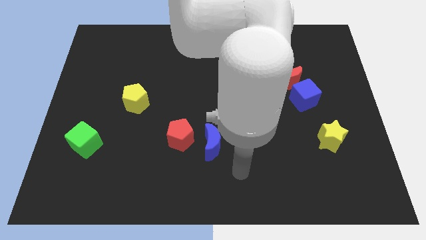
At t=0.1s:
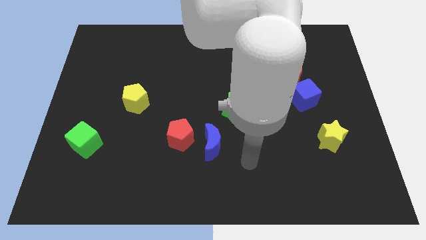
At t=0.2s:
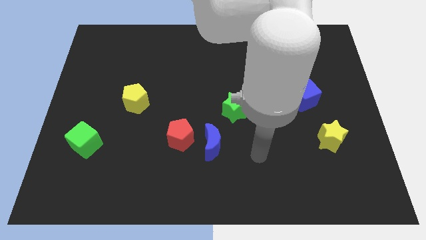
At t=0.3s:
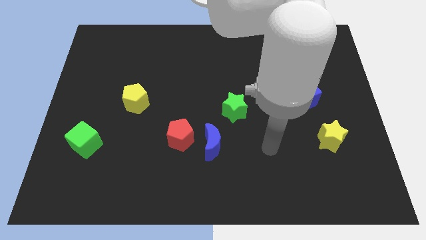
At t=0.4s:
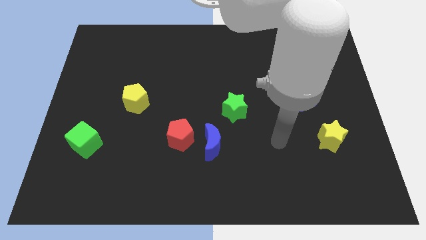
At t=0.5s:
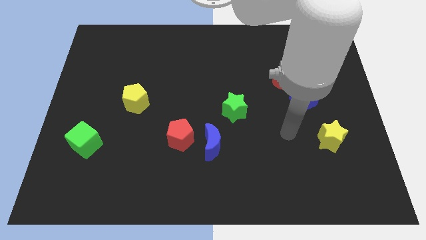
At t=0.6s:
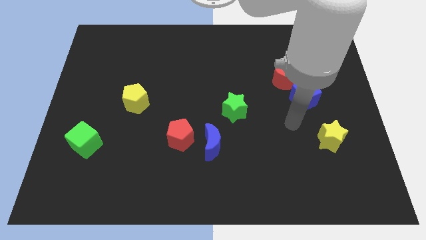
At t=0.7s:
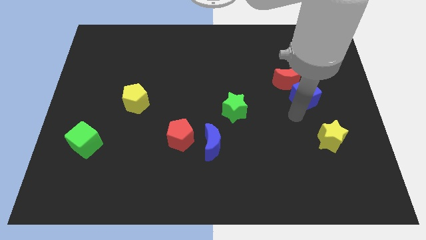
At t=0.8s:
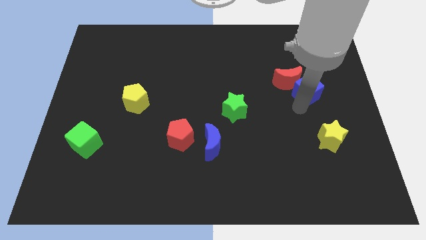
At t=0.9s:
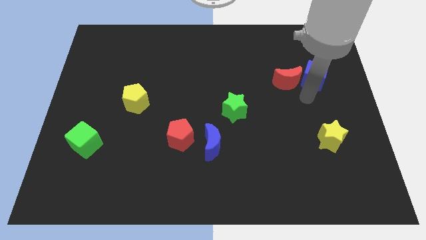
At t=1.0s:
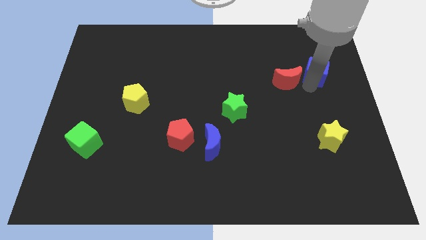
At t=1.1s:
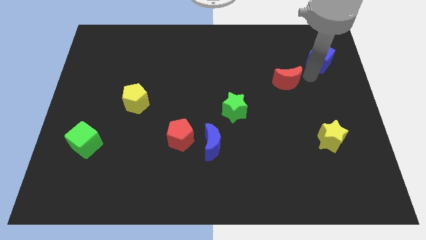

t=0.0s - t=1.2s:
separate the red moon from the blue cube

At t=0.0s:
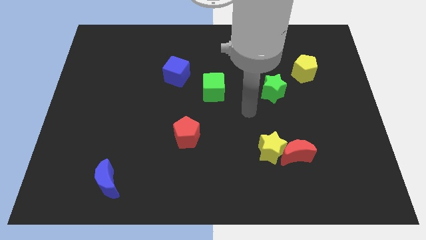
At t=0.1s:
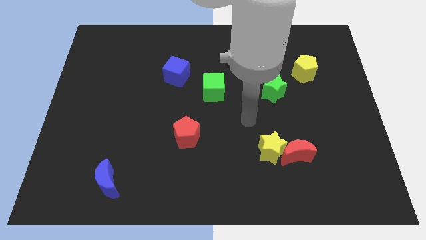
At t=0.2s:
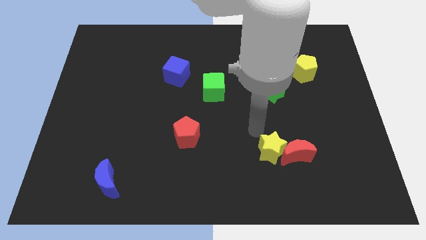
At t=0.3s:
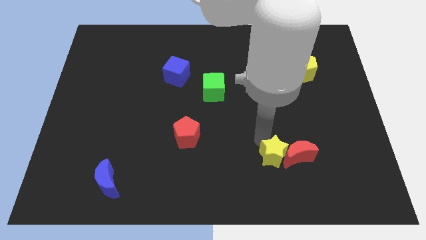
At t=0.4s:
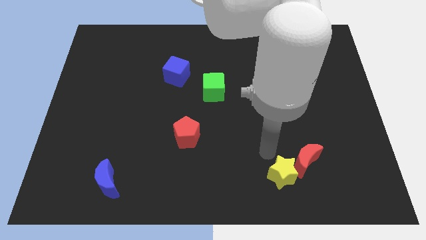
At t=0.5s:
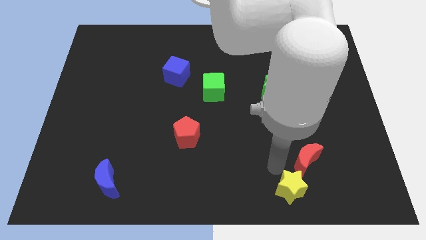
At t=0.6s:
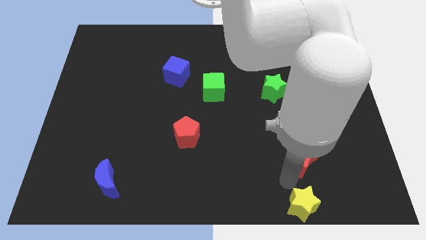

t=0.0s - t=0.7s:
pull the red moon apart from the yellow star

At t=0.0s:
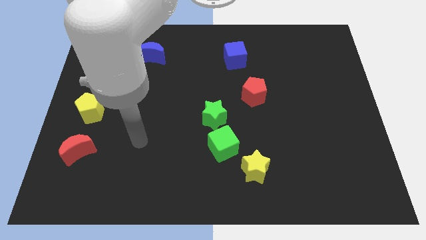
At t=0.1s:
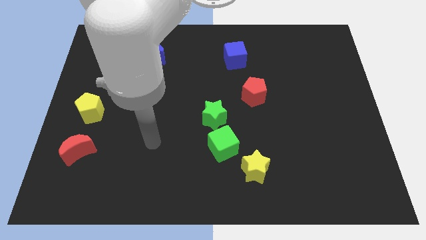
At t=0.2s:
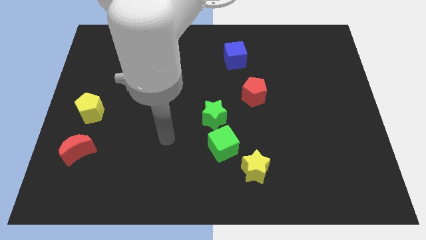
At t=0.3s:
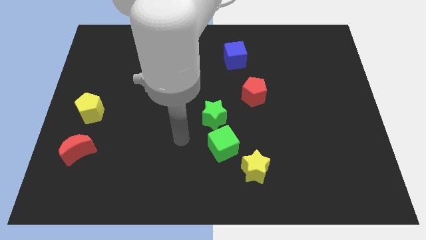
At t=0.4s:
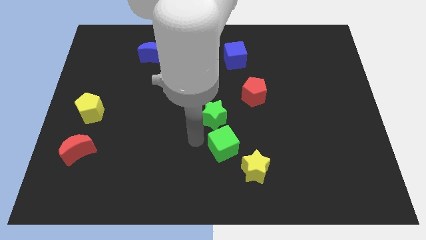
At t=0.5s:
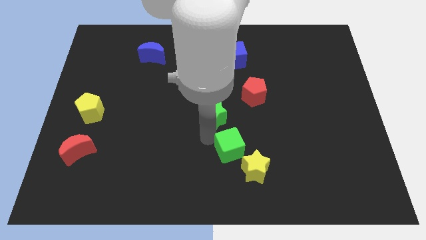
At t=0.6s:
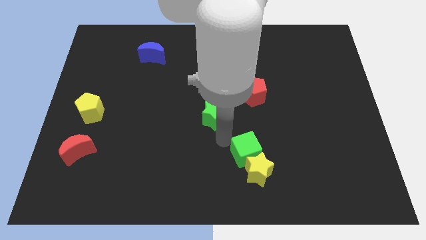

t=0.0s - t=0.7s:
separate the green star from the green cube

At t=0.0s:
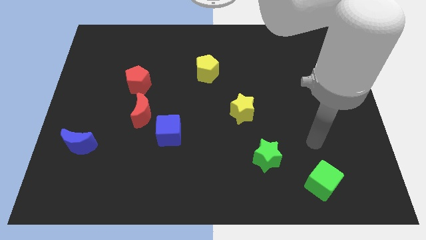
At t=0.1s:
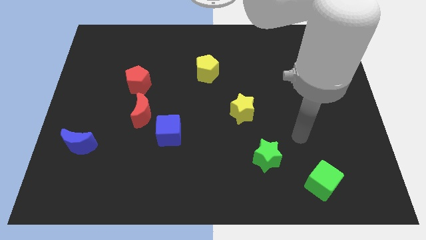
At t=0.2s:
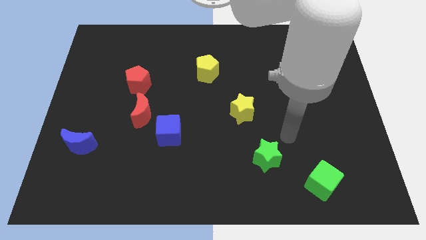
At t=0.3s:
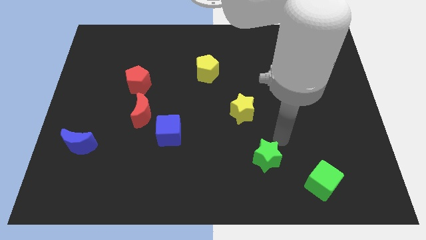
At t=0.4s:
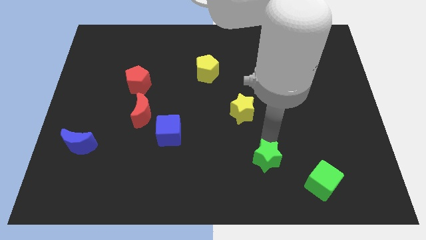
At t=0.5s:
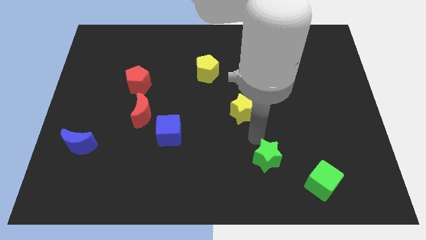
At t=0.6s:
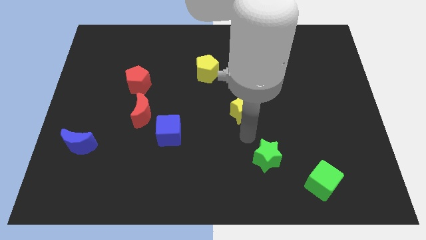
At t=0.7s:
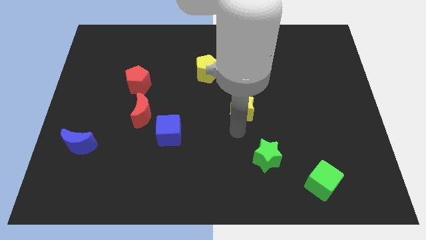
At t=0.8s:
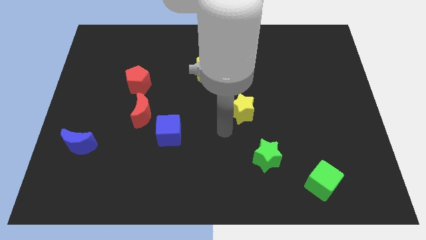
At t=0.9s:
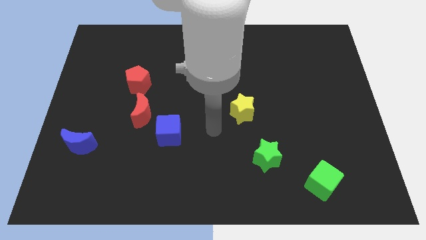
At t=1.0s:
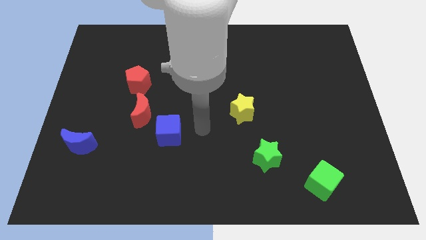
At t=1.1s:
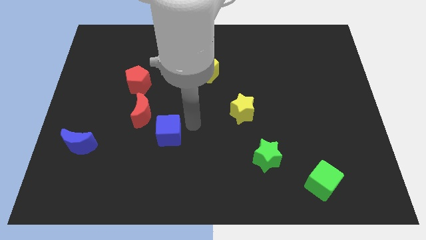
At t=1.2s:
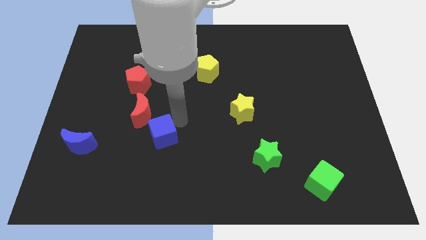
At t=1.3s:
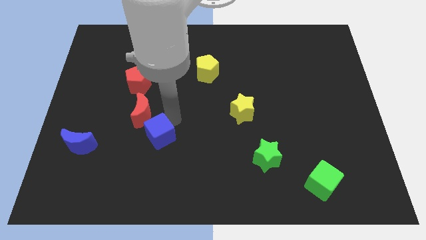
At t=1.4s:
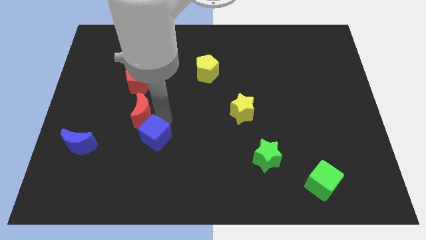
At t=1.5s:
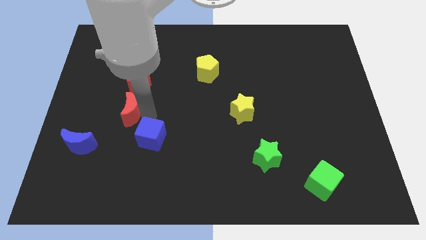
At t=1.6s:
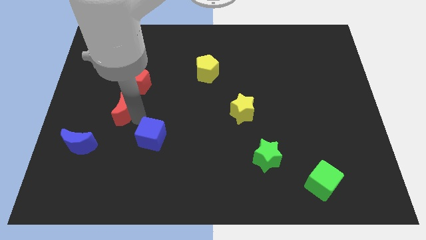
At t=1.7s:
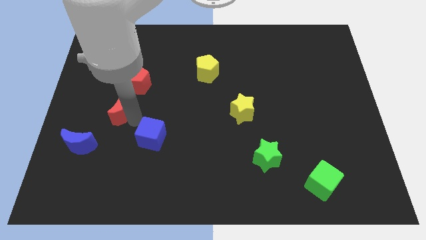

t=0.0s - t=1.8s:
separate the blue cube from the red moon

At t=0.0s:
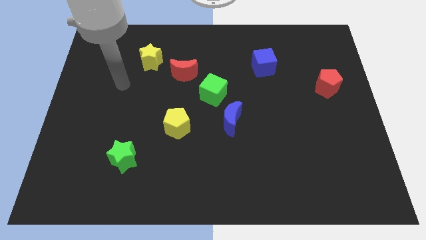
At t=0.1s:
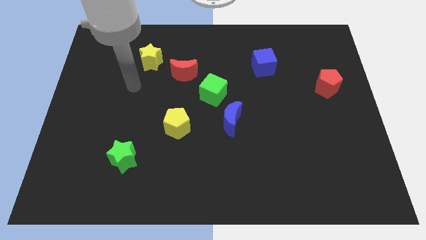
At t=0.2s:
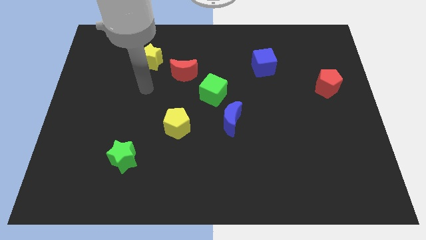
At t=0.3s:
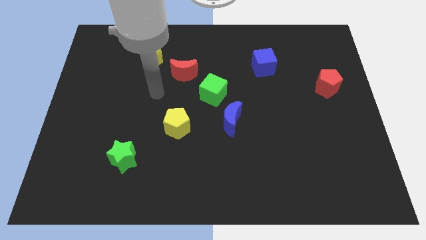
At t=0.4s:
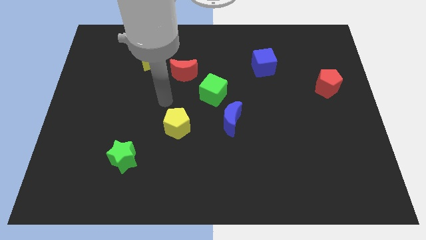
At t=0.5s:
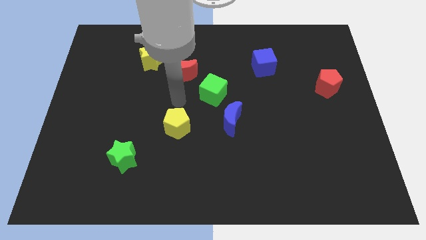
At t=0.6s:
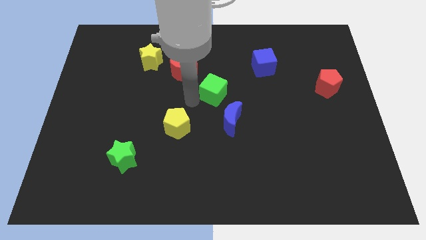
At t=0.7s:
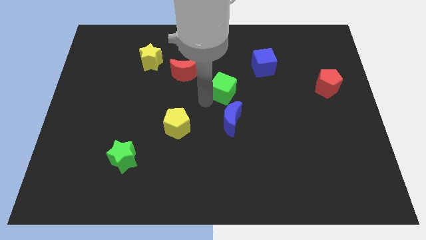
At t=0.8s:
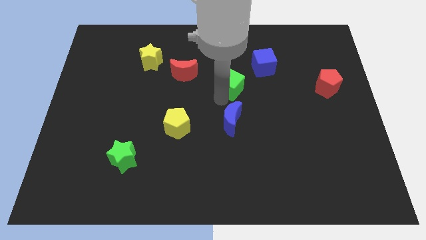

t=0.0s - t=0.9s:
pull the blue moon apart from the green cube

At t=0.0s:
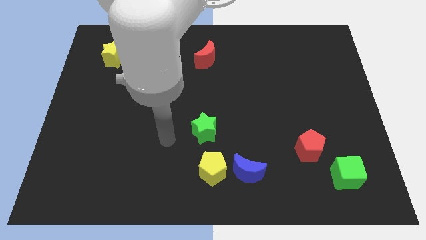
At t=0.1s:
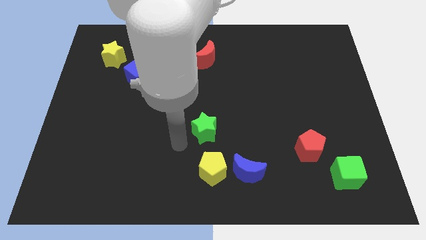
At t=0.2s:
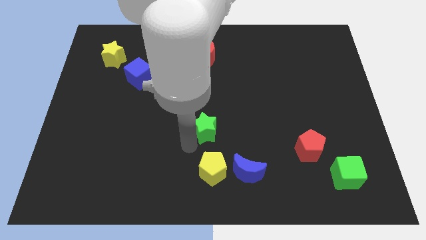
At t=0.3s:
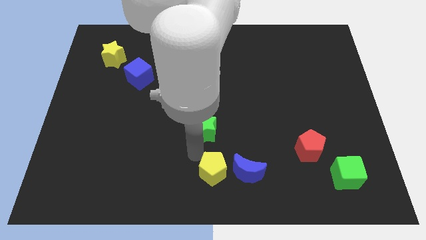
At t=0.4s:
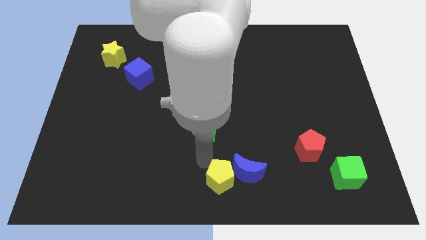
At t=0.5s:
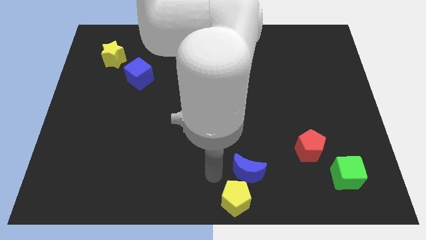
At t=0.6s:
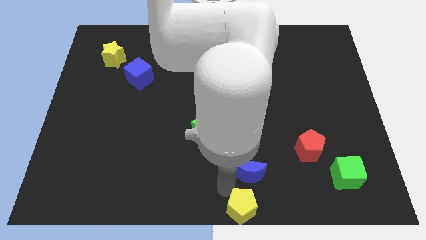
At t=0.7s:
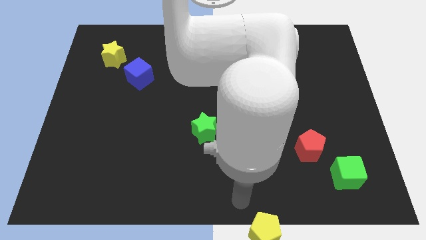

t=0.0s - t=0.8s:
separate the blue moon from the yellow pentagon

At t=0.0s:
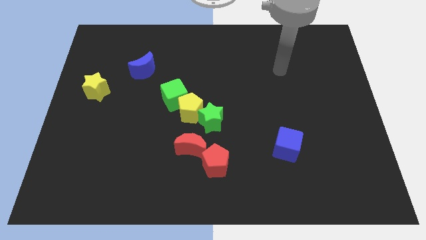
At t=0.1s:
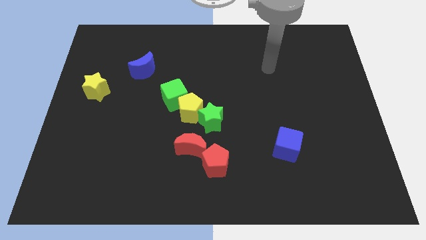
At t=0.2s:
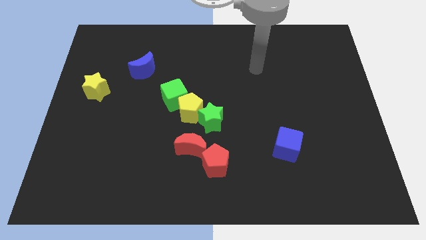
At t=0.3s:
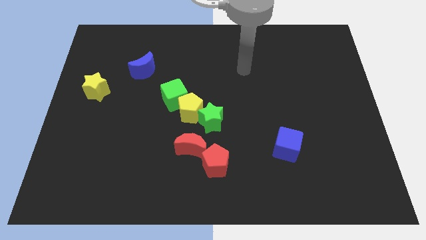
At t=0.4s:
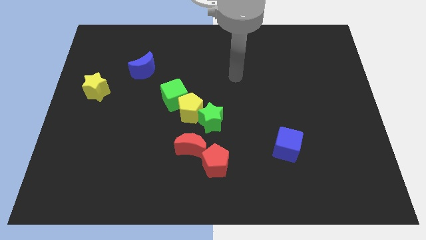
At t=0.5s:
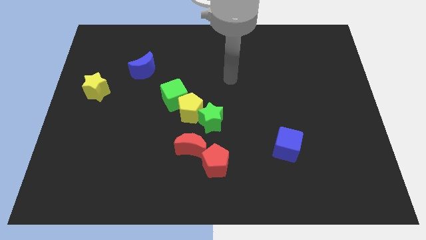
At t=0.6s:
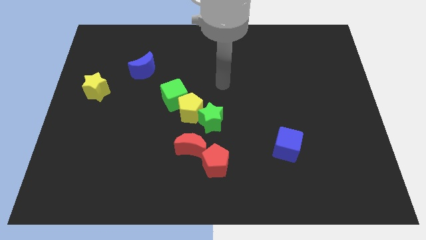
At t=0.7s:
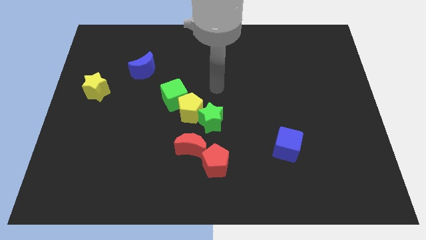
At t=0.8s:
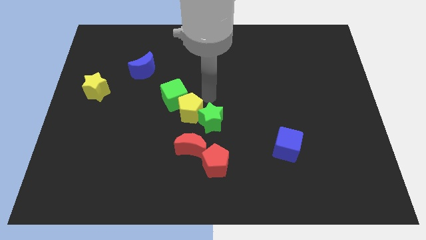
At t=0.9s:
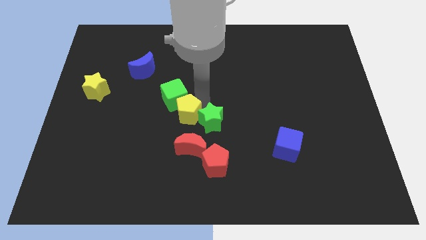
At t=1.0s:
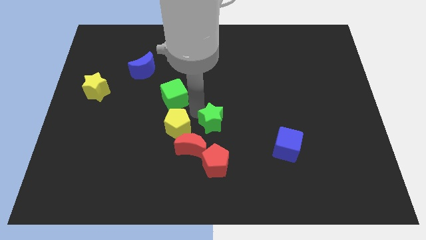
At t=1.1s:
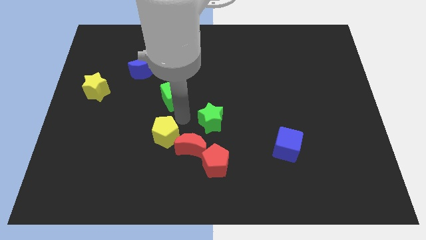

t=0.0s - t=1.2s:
move the green cube away from the yellow pentagon

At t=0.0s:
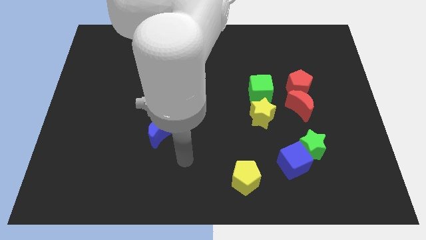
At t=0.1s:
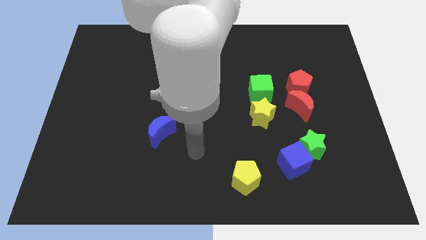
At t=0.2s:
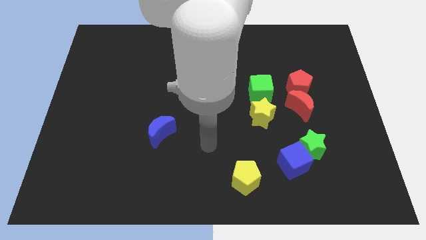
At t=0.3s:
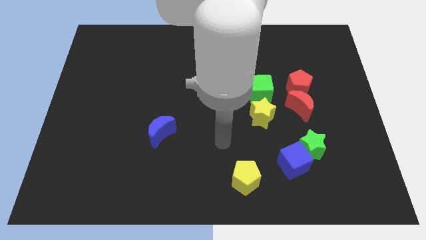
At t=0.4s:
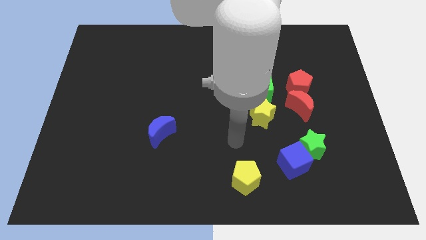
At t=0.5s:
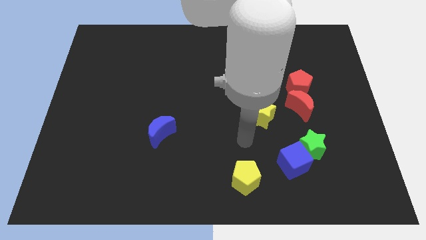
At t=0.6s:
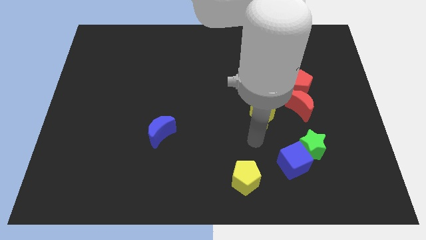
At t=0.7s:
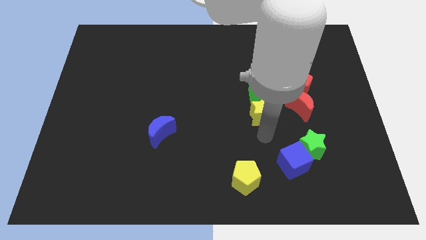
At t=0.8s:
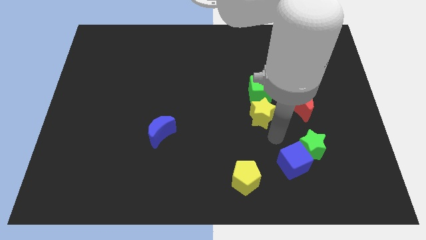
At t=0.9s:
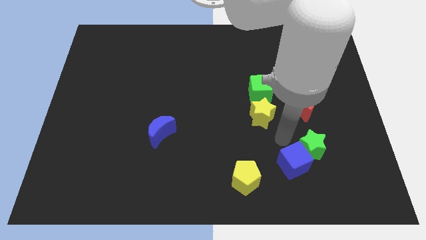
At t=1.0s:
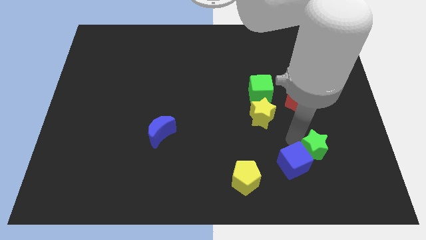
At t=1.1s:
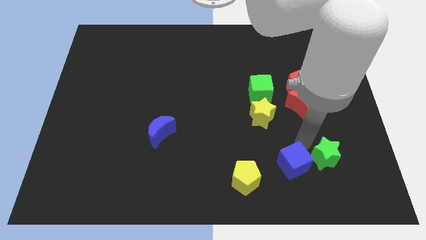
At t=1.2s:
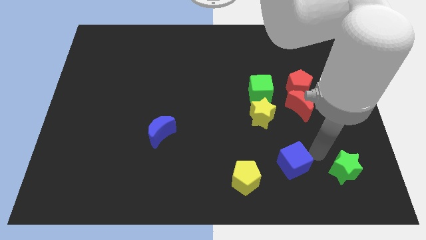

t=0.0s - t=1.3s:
separate the blue cube from the green star

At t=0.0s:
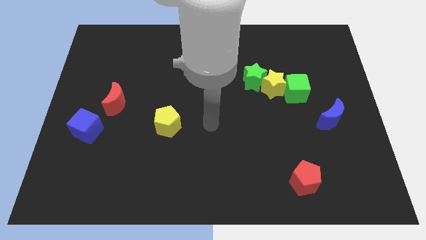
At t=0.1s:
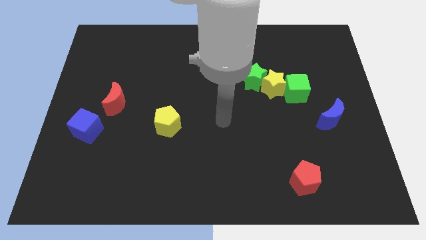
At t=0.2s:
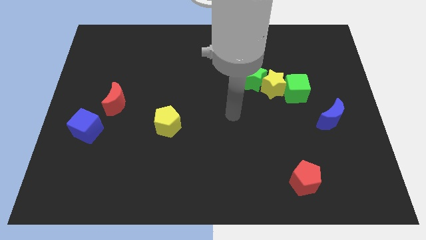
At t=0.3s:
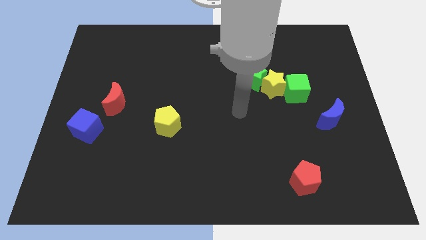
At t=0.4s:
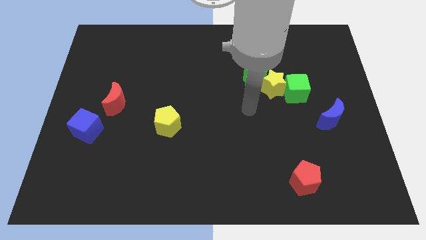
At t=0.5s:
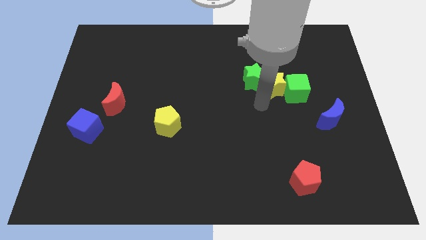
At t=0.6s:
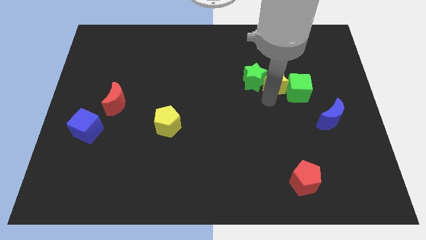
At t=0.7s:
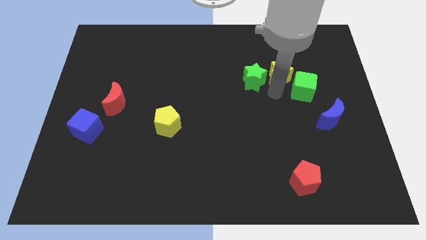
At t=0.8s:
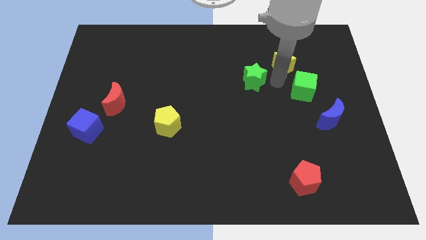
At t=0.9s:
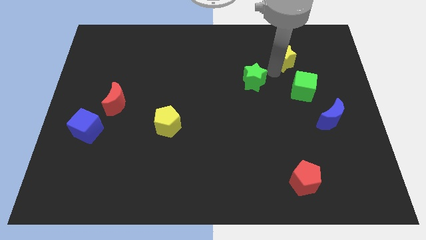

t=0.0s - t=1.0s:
pull the green star apart from the yellow star
